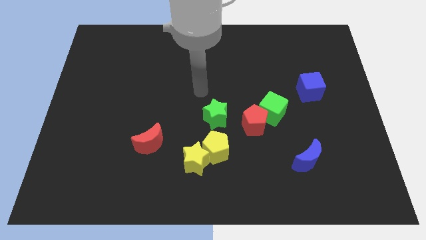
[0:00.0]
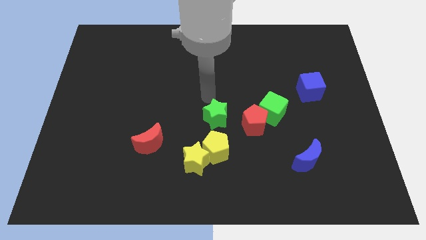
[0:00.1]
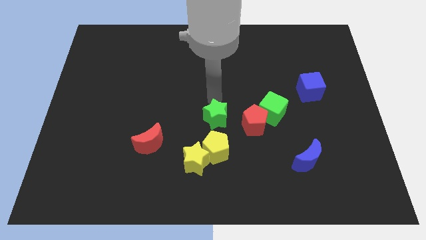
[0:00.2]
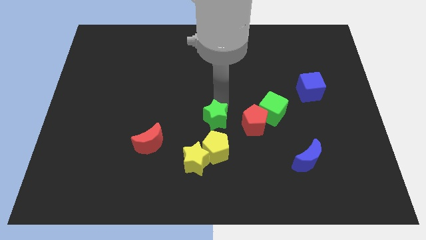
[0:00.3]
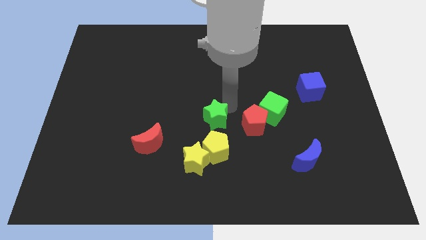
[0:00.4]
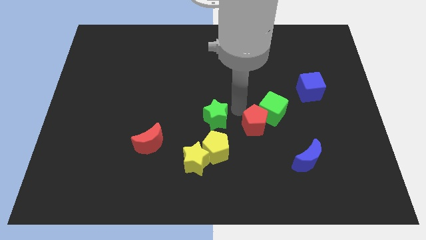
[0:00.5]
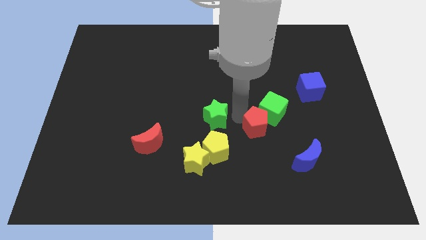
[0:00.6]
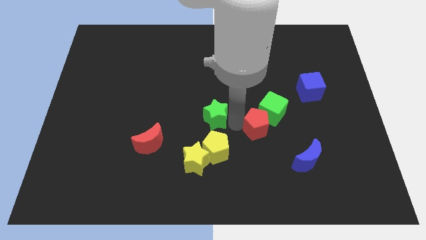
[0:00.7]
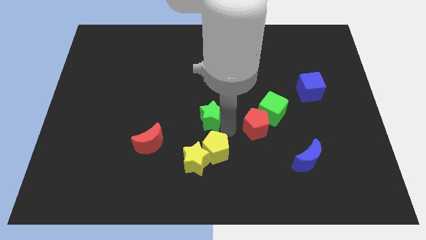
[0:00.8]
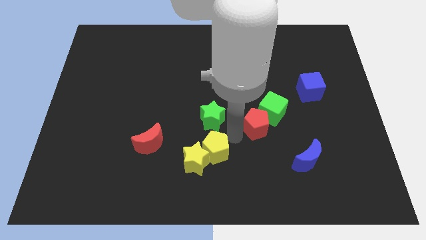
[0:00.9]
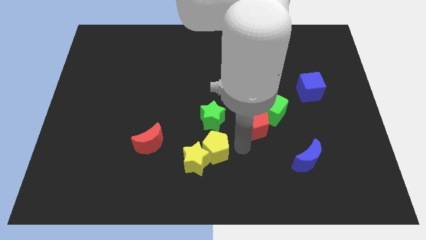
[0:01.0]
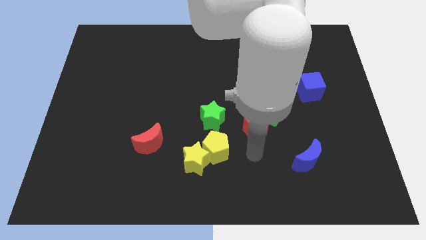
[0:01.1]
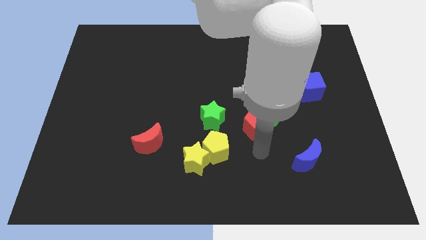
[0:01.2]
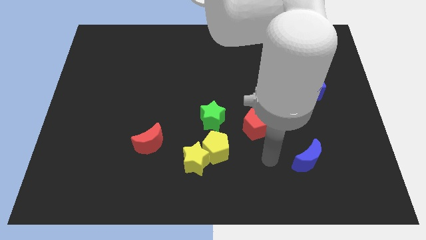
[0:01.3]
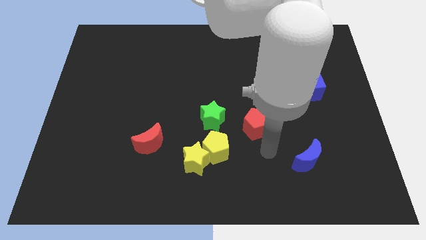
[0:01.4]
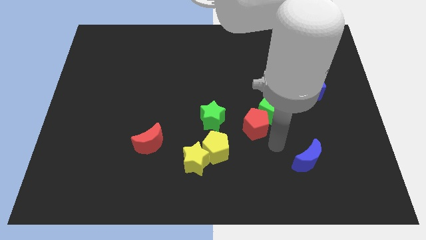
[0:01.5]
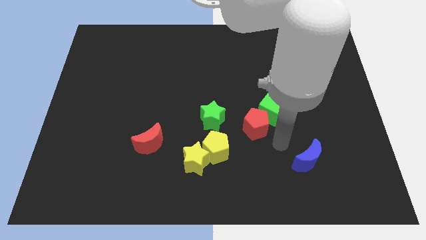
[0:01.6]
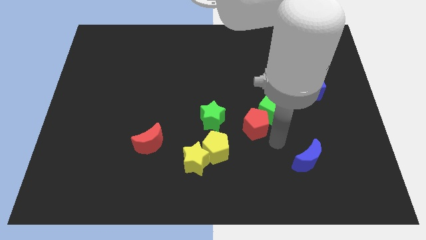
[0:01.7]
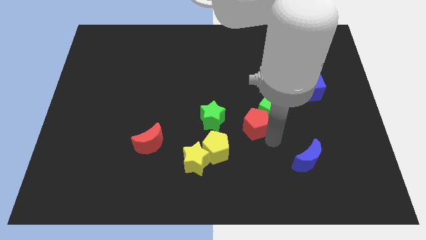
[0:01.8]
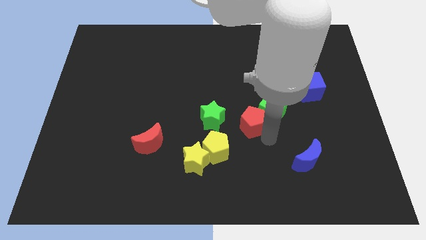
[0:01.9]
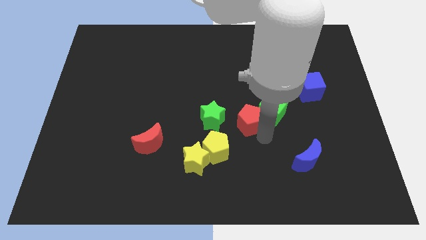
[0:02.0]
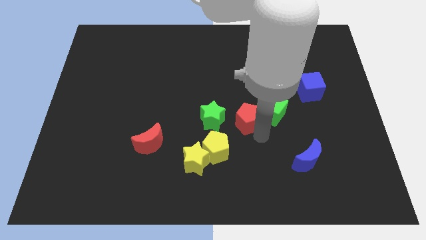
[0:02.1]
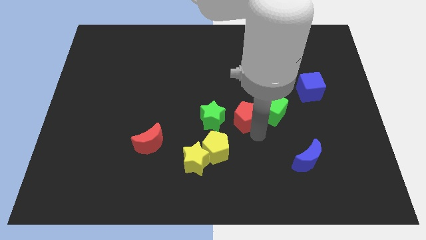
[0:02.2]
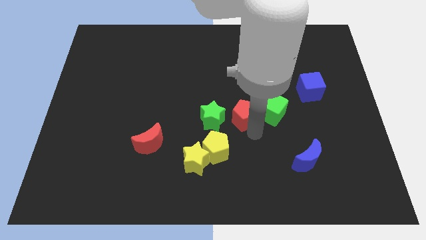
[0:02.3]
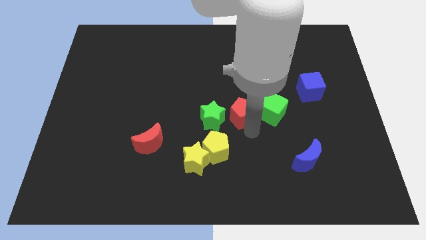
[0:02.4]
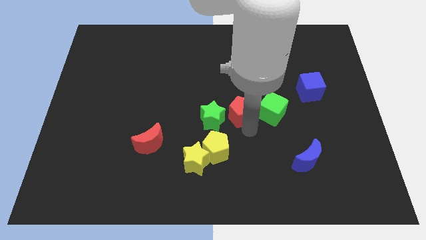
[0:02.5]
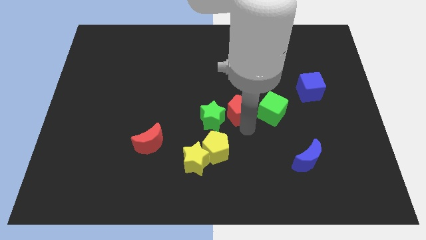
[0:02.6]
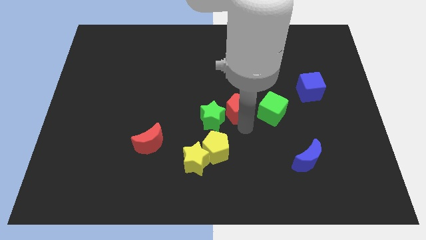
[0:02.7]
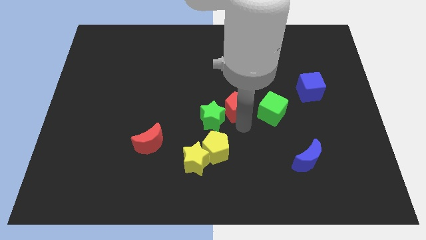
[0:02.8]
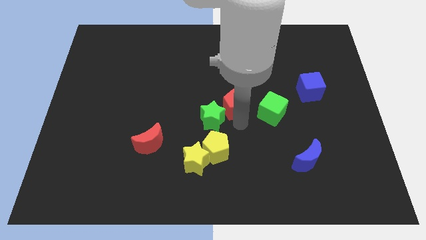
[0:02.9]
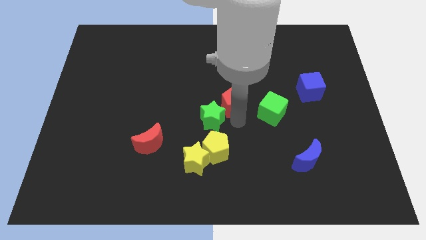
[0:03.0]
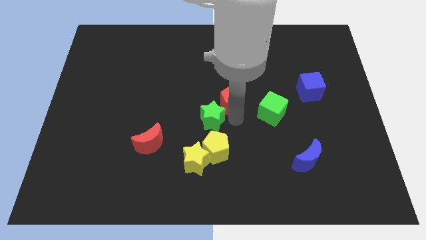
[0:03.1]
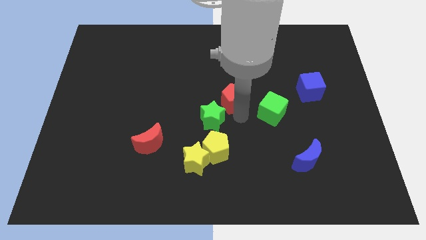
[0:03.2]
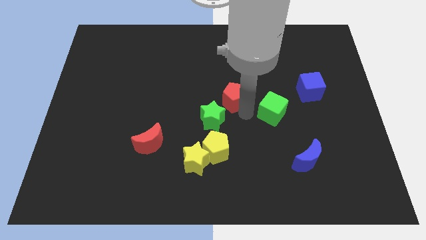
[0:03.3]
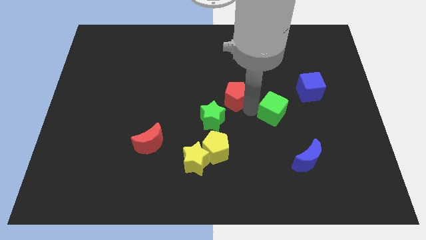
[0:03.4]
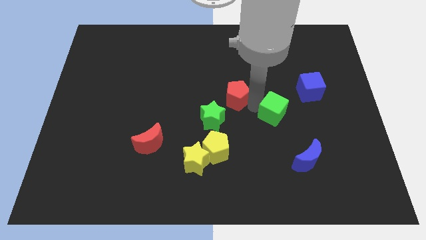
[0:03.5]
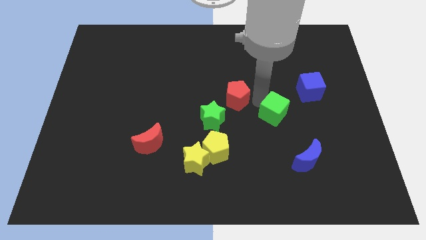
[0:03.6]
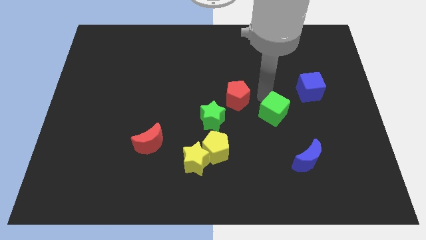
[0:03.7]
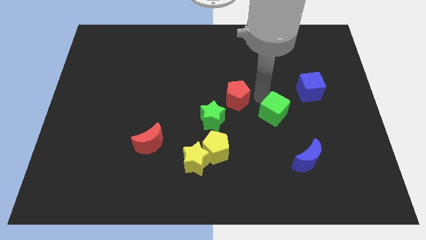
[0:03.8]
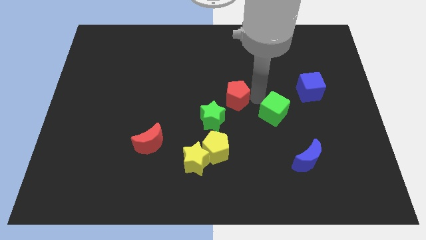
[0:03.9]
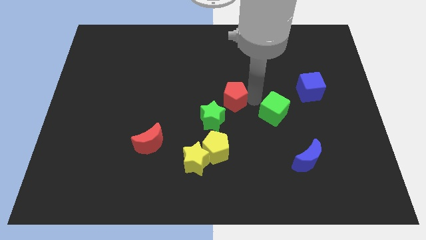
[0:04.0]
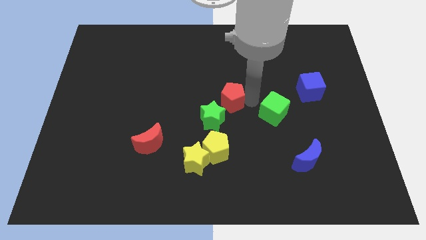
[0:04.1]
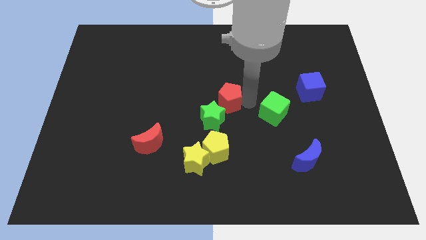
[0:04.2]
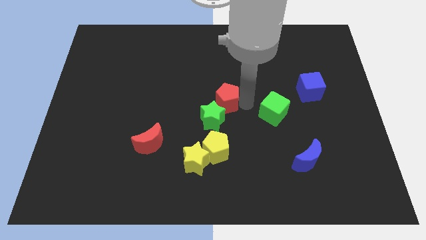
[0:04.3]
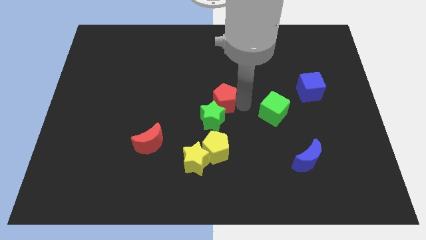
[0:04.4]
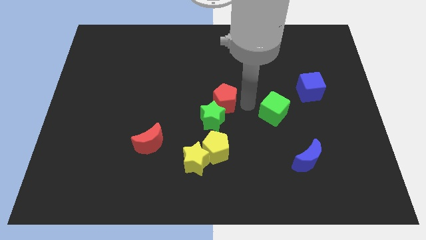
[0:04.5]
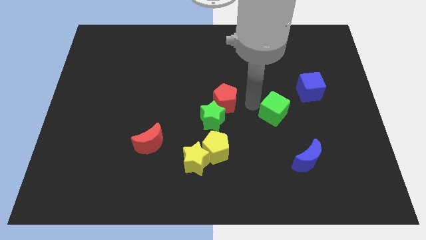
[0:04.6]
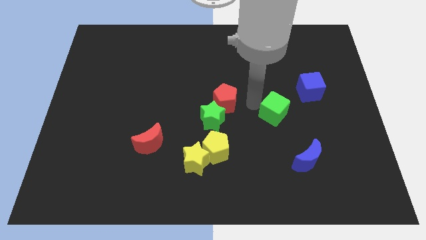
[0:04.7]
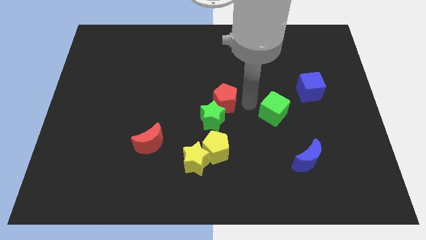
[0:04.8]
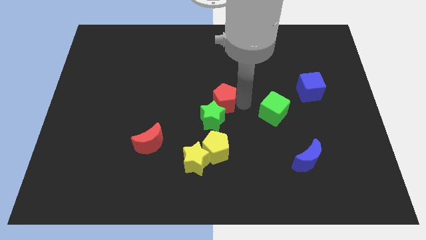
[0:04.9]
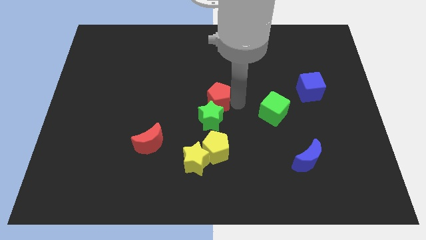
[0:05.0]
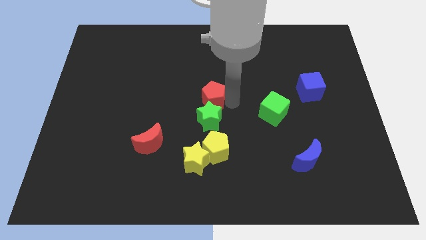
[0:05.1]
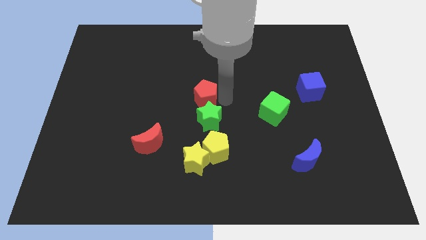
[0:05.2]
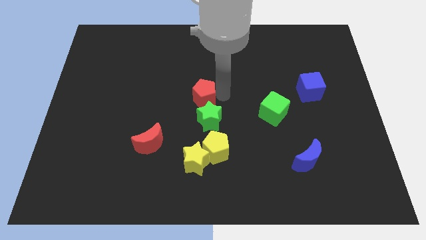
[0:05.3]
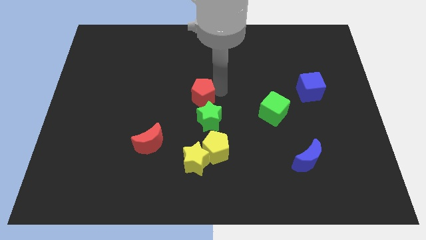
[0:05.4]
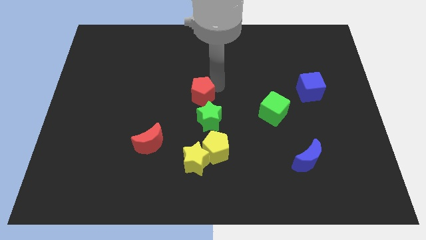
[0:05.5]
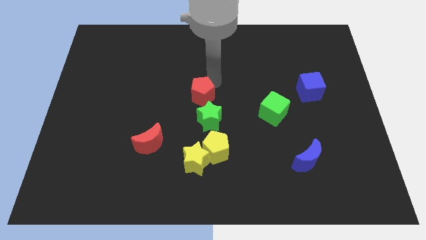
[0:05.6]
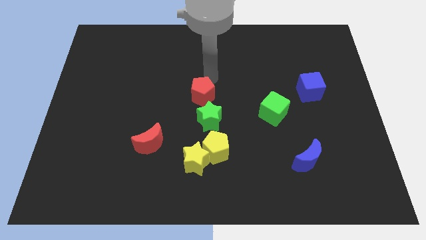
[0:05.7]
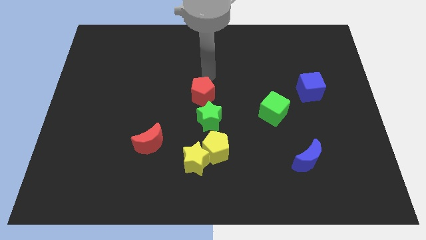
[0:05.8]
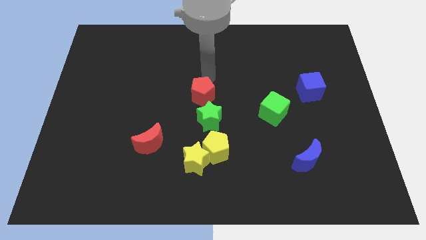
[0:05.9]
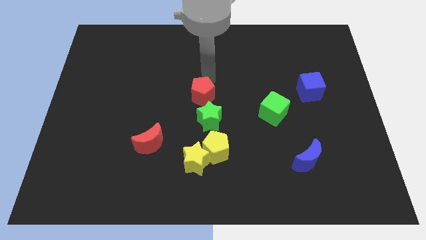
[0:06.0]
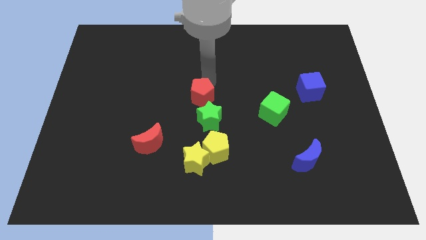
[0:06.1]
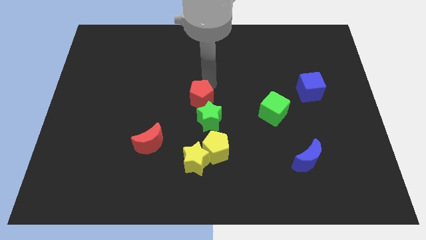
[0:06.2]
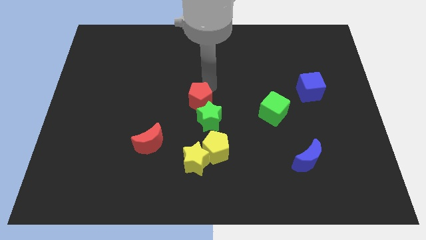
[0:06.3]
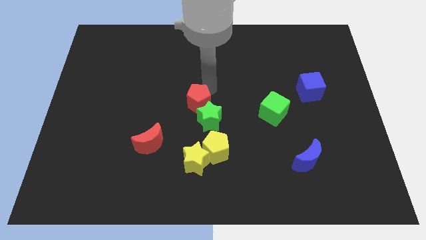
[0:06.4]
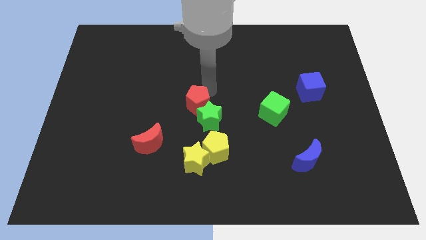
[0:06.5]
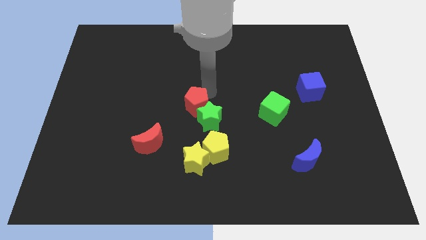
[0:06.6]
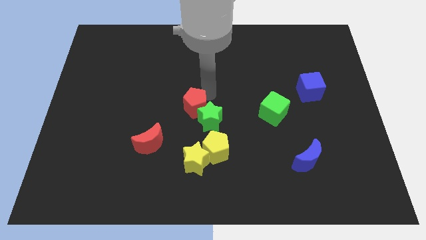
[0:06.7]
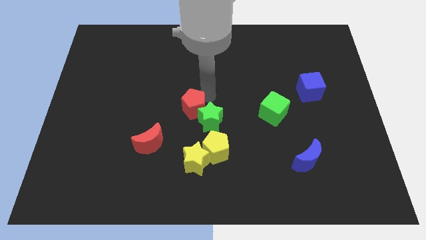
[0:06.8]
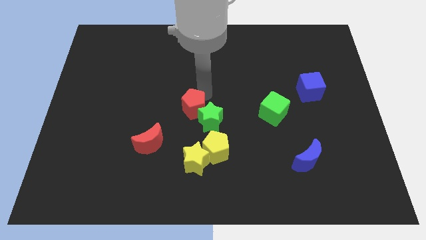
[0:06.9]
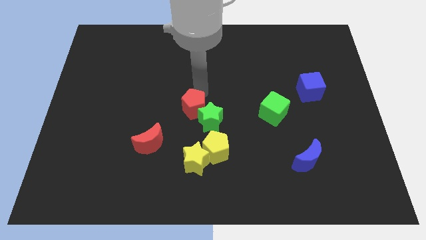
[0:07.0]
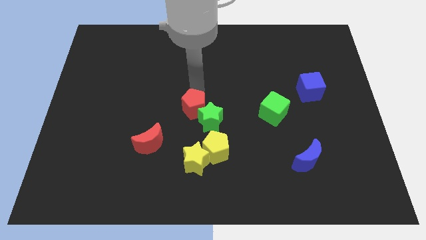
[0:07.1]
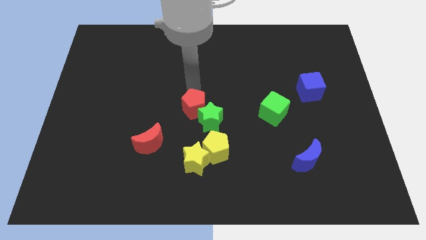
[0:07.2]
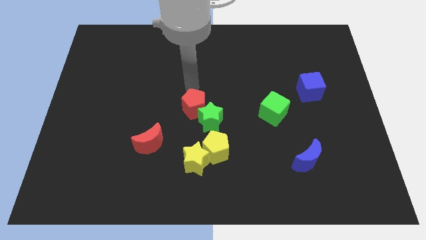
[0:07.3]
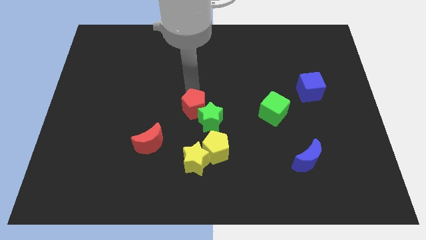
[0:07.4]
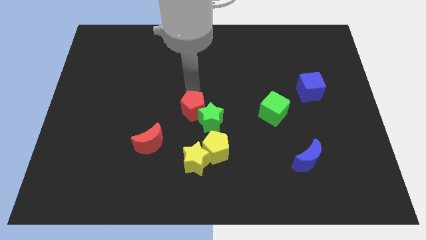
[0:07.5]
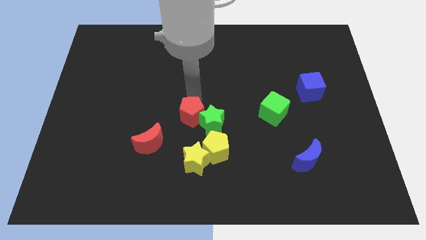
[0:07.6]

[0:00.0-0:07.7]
slide the red pentagon to the top left of the yellow pentagon
